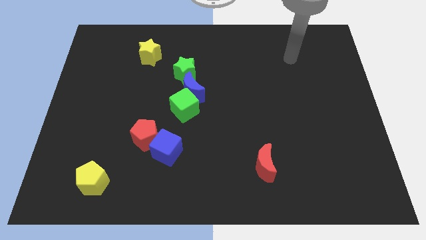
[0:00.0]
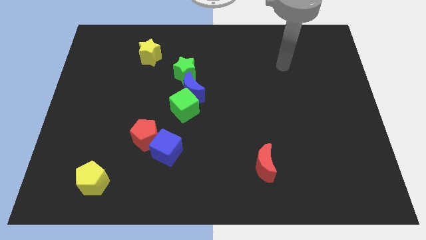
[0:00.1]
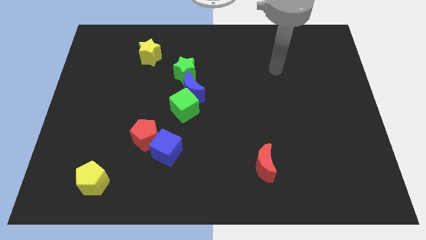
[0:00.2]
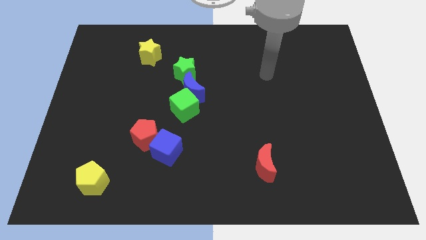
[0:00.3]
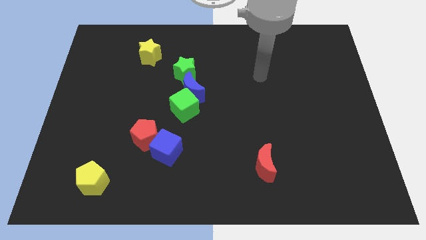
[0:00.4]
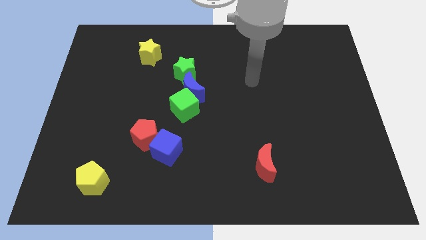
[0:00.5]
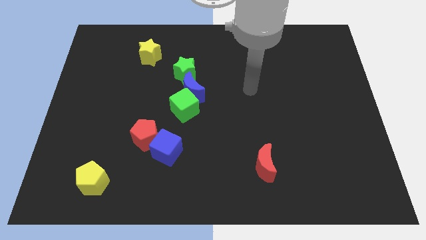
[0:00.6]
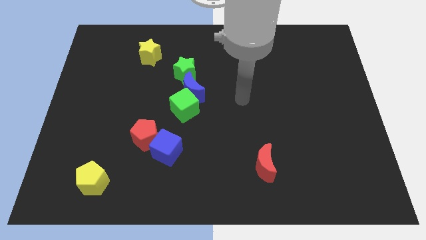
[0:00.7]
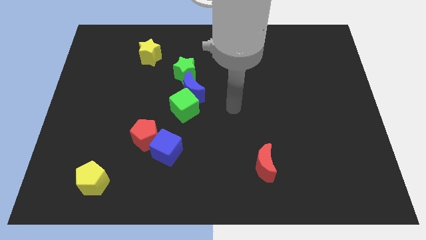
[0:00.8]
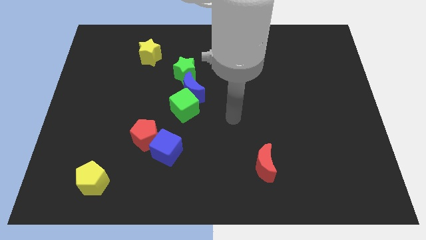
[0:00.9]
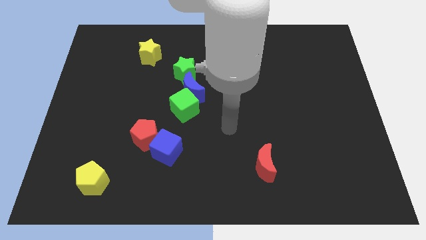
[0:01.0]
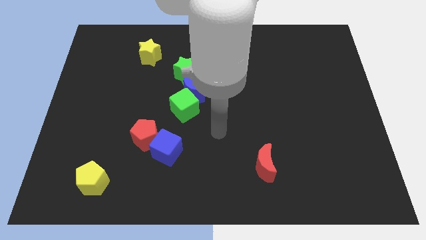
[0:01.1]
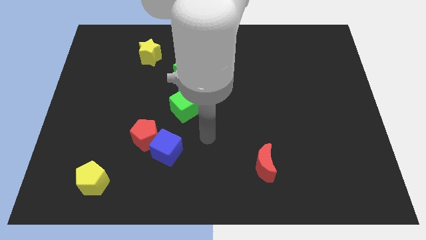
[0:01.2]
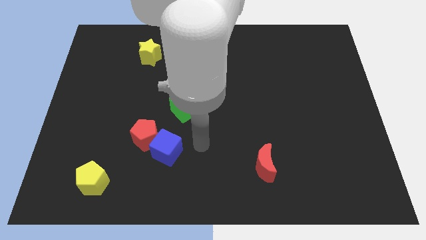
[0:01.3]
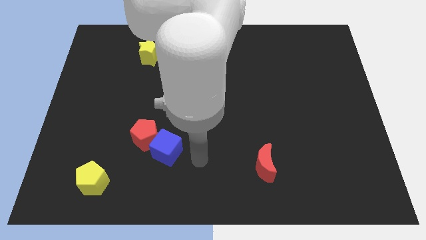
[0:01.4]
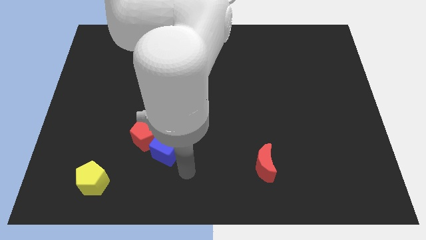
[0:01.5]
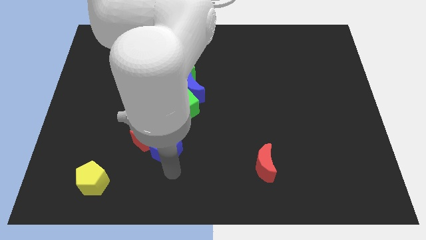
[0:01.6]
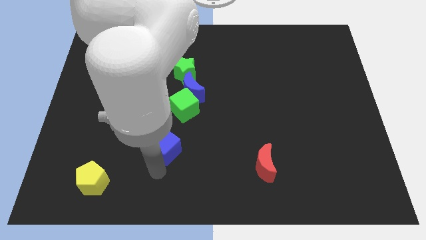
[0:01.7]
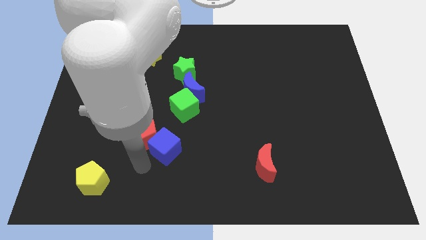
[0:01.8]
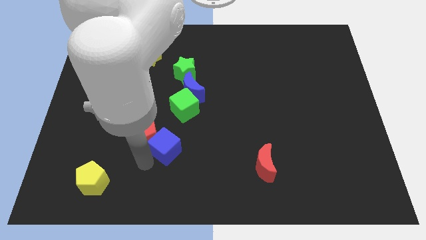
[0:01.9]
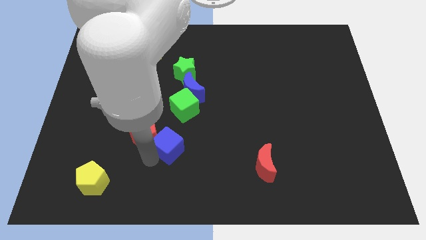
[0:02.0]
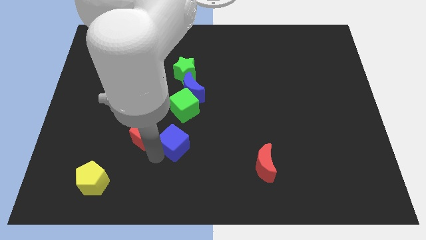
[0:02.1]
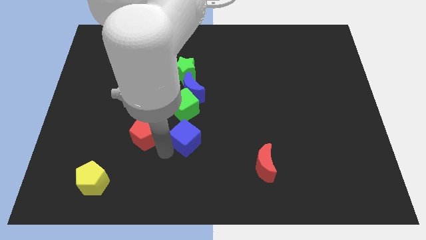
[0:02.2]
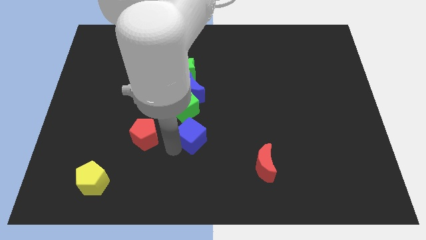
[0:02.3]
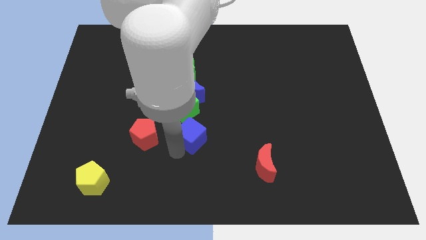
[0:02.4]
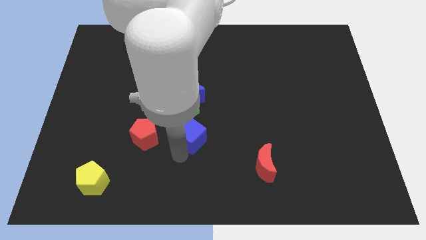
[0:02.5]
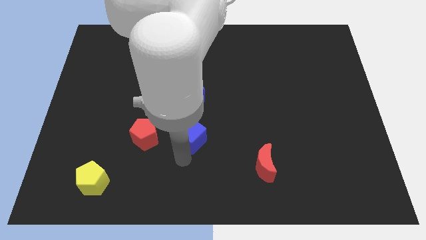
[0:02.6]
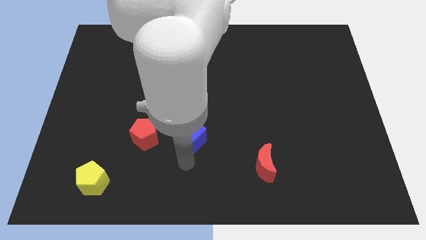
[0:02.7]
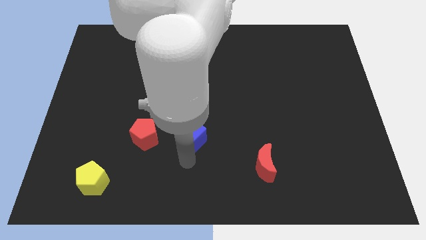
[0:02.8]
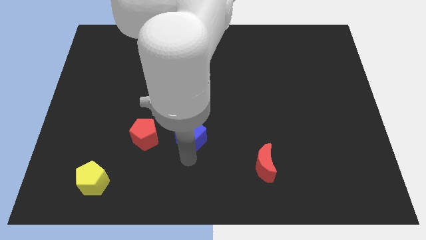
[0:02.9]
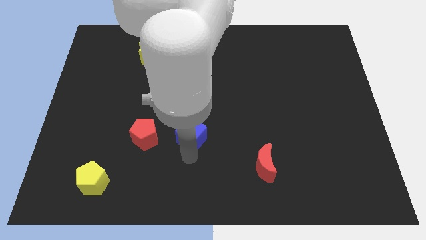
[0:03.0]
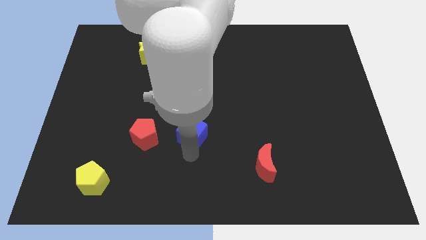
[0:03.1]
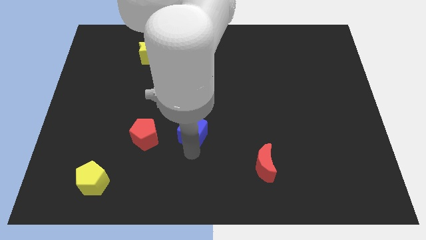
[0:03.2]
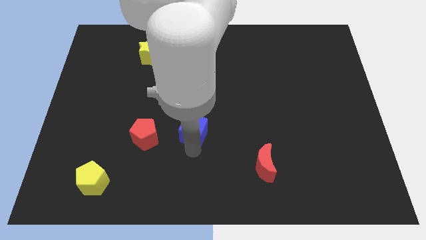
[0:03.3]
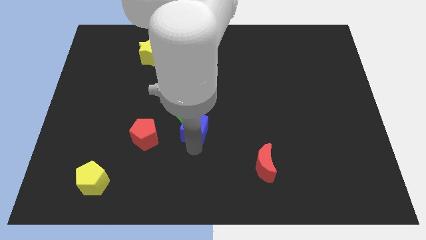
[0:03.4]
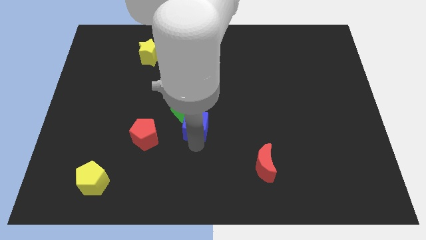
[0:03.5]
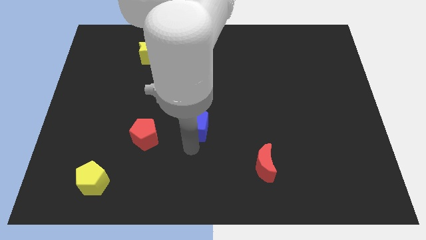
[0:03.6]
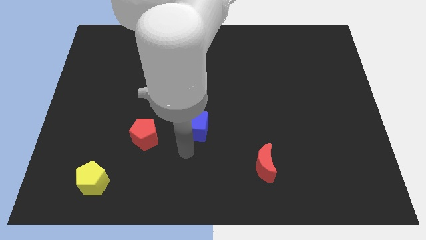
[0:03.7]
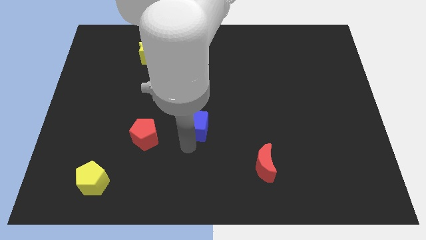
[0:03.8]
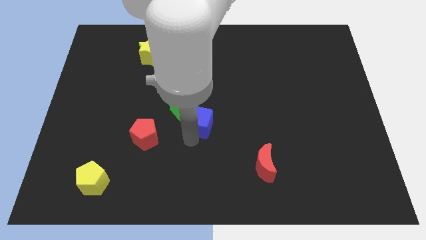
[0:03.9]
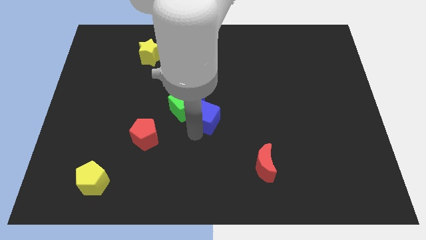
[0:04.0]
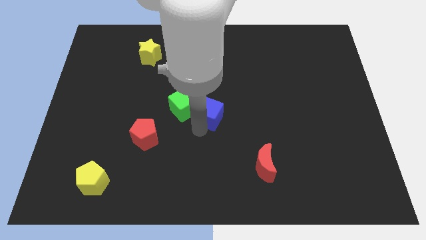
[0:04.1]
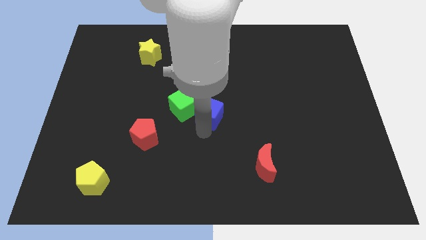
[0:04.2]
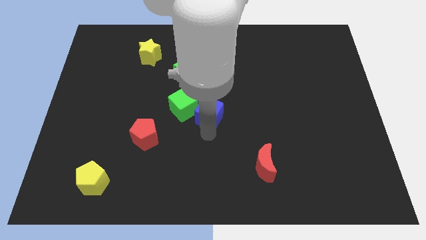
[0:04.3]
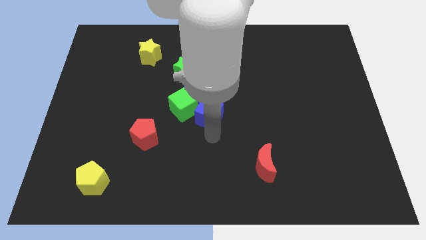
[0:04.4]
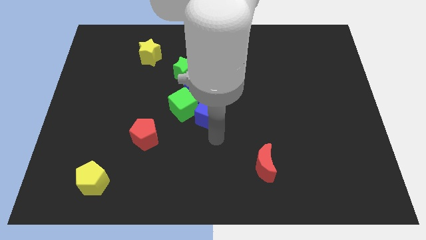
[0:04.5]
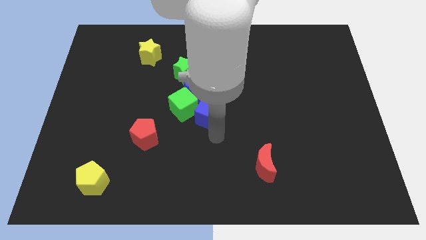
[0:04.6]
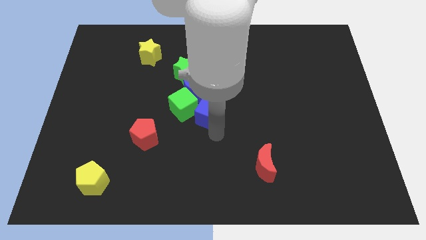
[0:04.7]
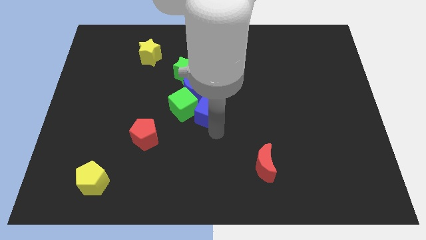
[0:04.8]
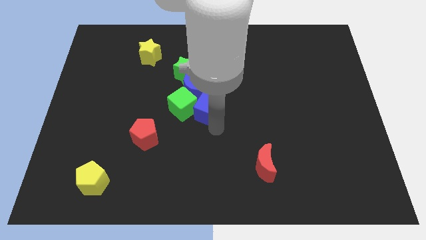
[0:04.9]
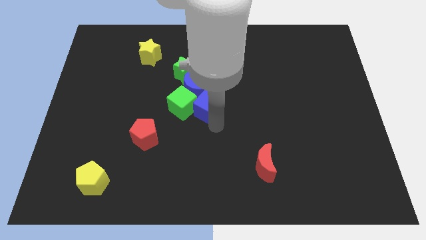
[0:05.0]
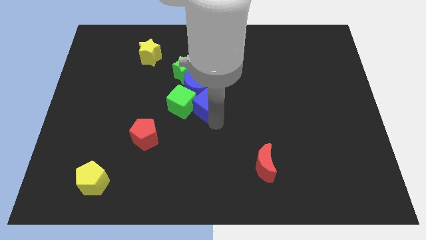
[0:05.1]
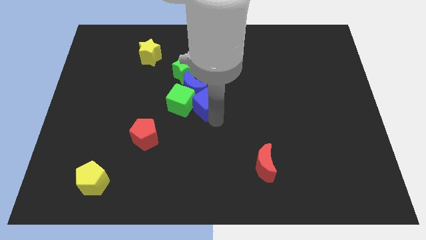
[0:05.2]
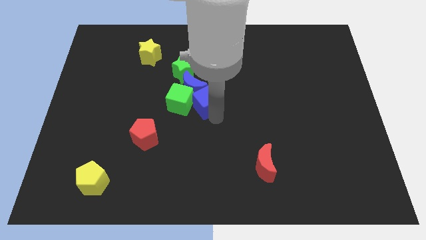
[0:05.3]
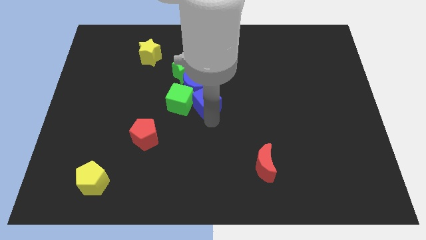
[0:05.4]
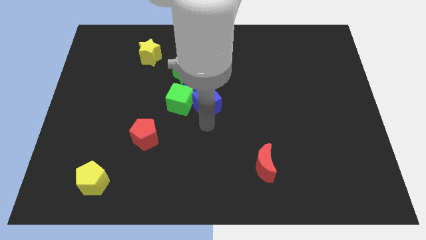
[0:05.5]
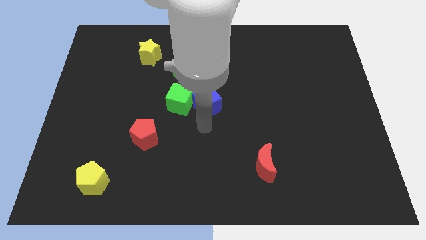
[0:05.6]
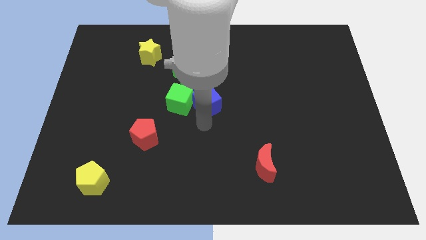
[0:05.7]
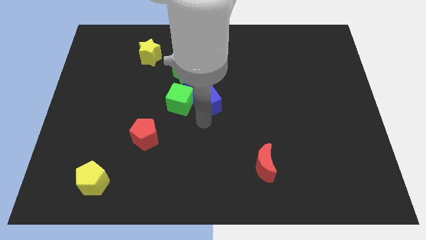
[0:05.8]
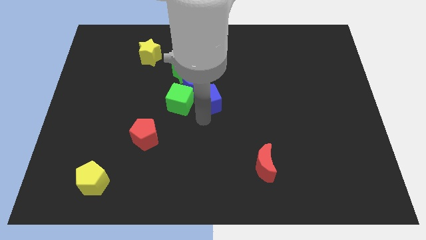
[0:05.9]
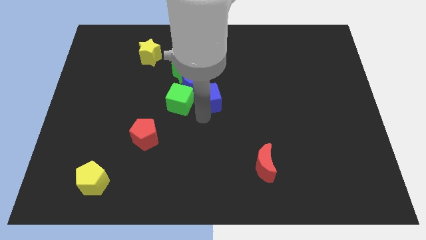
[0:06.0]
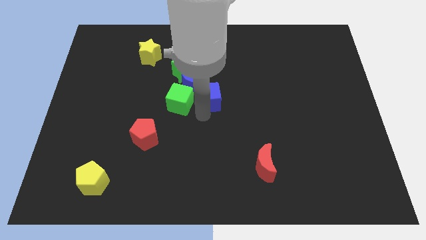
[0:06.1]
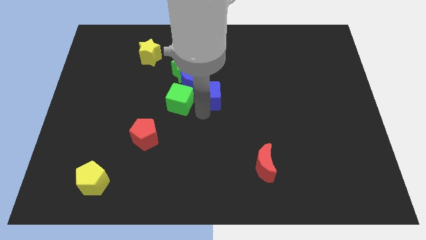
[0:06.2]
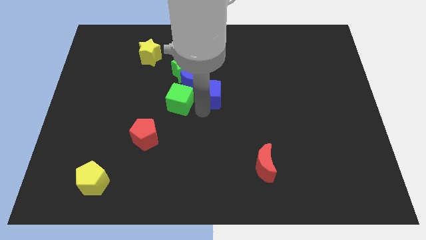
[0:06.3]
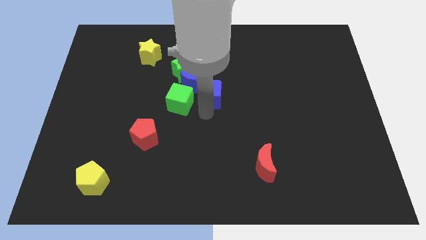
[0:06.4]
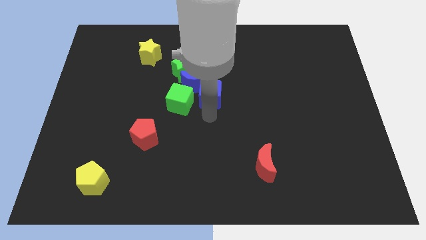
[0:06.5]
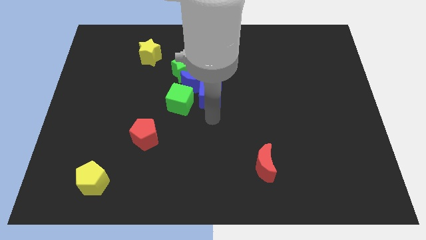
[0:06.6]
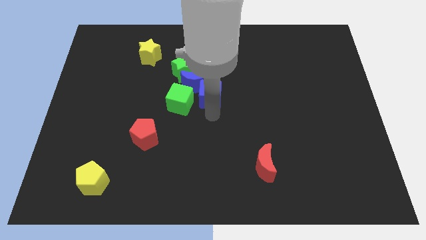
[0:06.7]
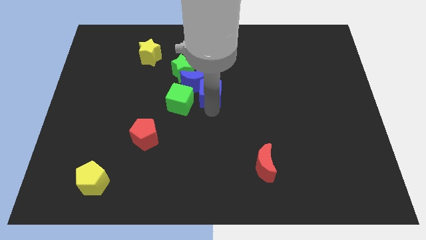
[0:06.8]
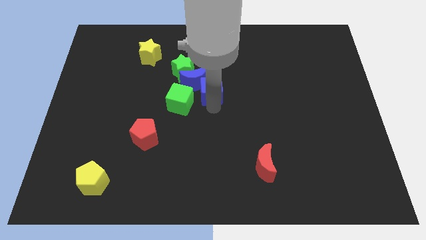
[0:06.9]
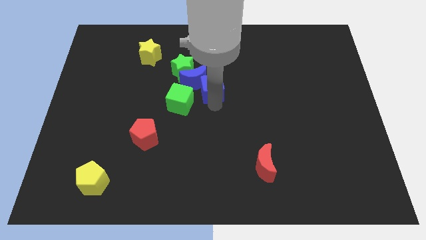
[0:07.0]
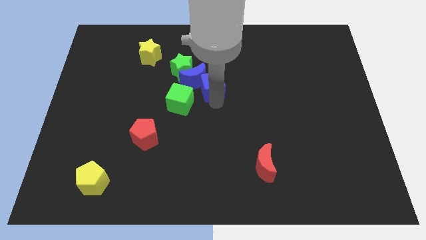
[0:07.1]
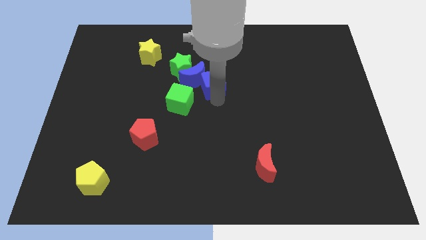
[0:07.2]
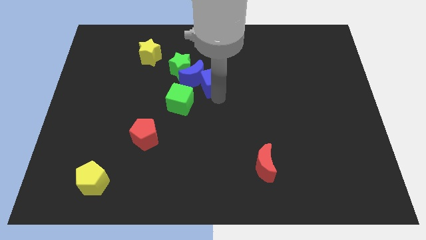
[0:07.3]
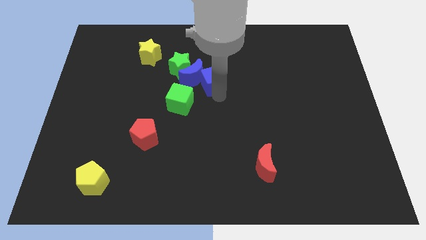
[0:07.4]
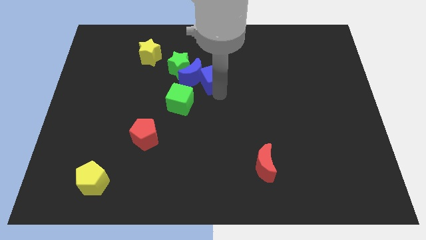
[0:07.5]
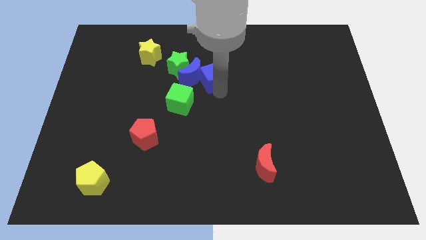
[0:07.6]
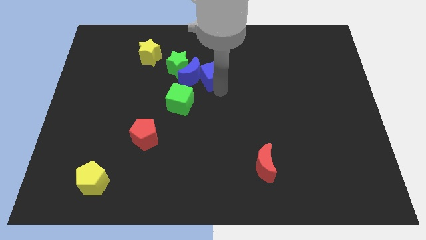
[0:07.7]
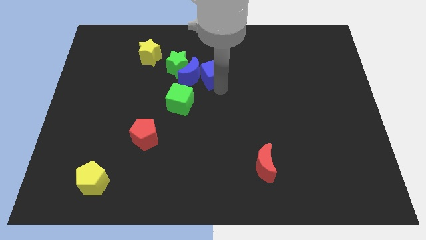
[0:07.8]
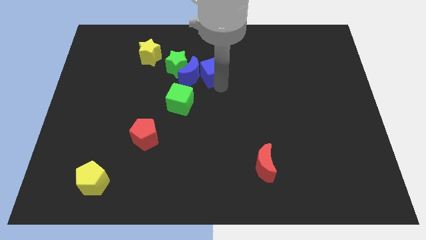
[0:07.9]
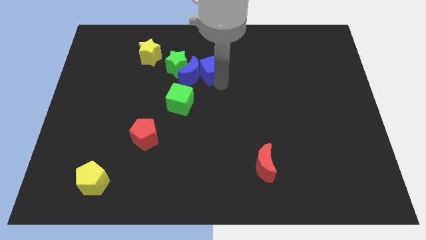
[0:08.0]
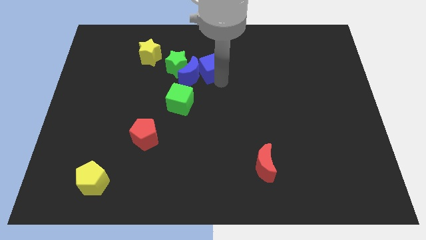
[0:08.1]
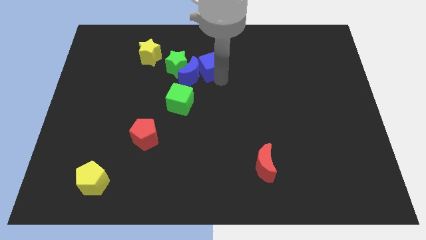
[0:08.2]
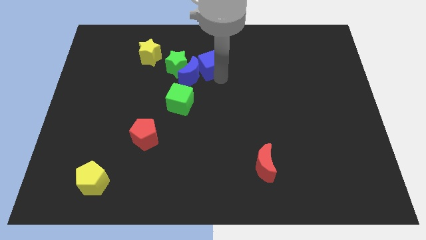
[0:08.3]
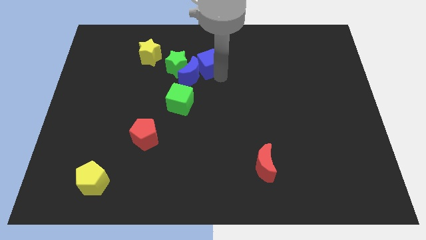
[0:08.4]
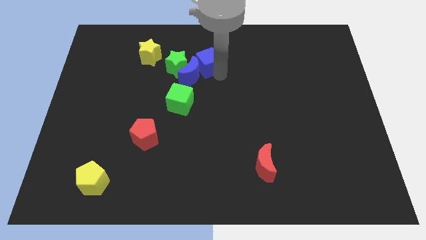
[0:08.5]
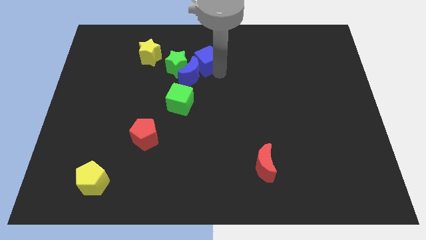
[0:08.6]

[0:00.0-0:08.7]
put the blue cube right of the yellow star

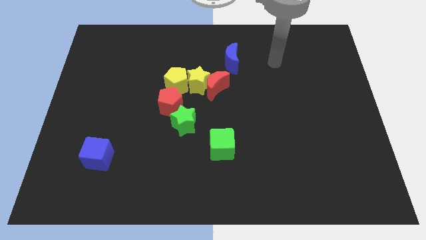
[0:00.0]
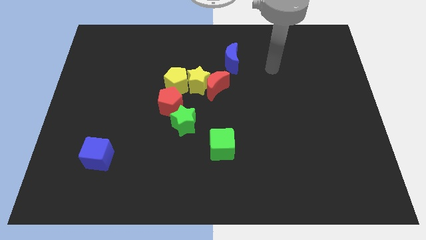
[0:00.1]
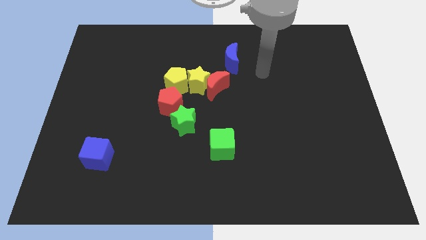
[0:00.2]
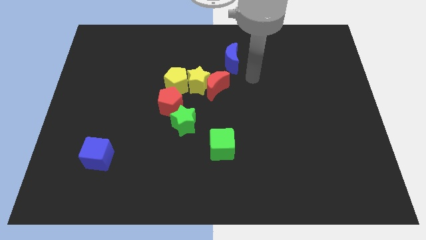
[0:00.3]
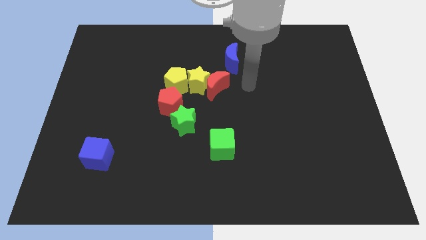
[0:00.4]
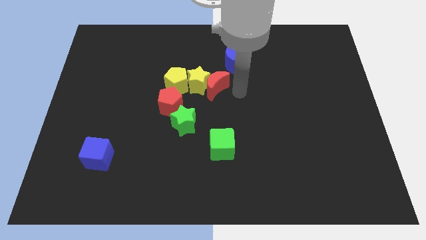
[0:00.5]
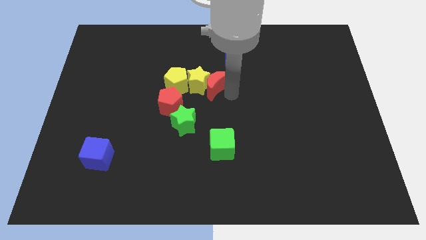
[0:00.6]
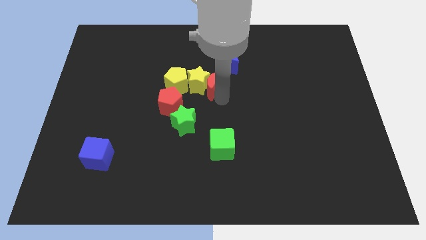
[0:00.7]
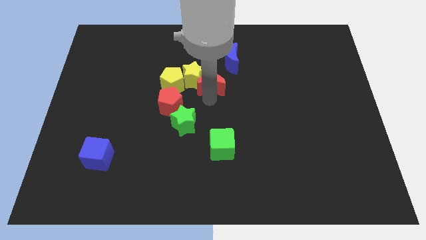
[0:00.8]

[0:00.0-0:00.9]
move the yellow star to the top of the red moon
